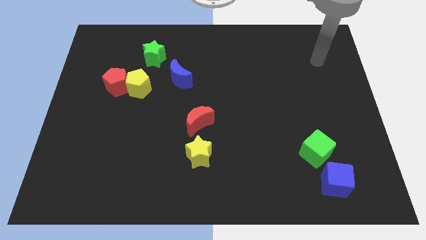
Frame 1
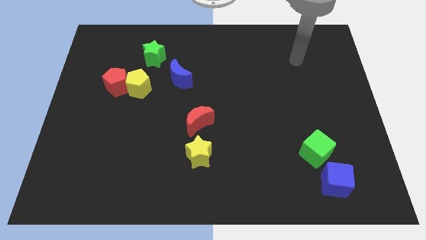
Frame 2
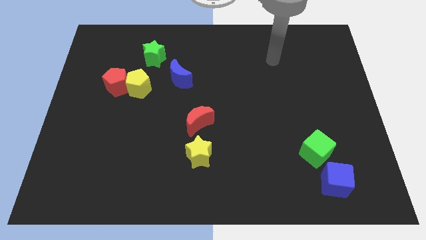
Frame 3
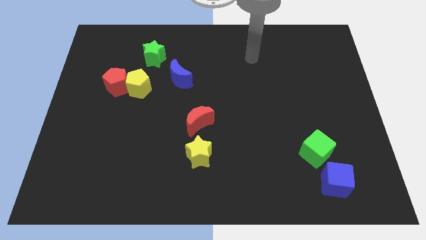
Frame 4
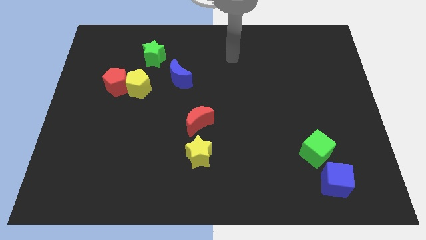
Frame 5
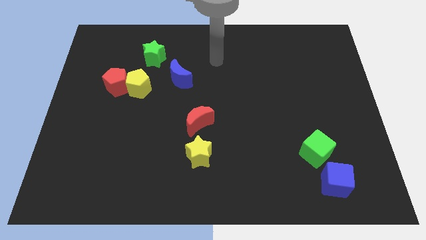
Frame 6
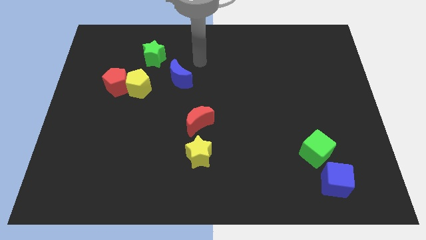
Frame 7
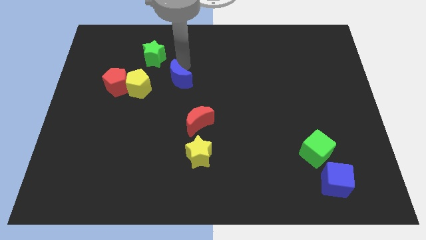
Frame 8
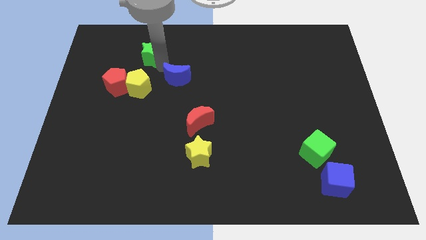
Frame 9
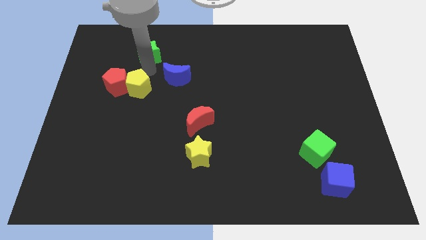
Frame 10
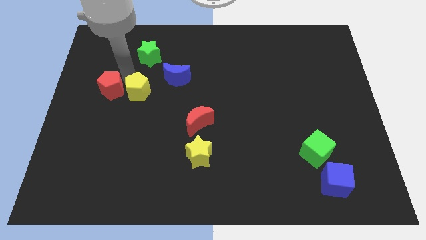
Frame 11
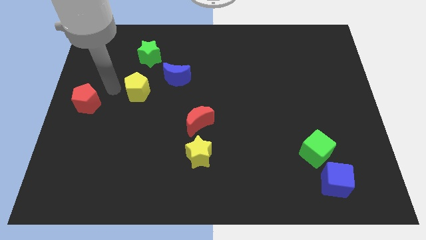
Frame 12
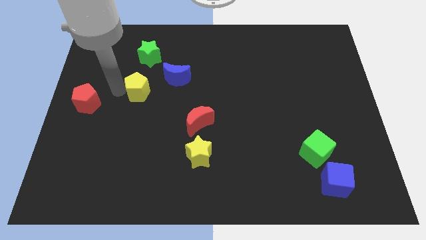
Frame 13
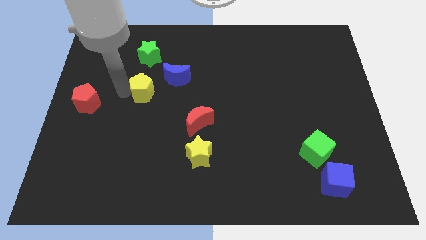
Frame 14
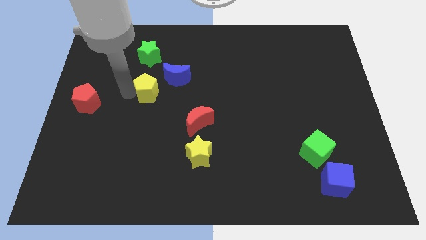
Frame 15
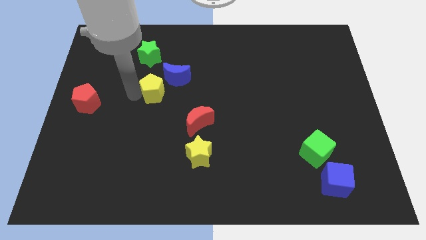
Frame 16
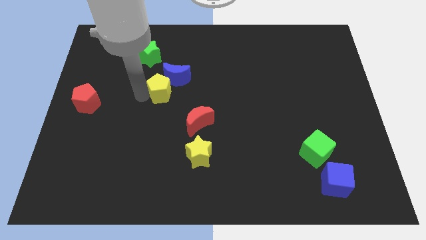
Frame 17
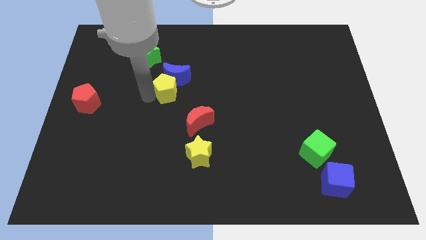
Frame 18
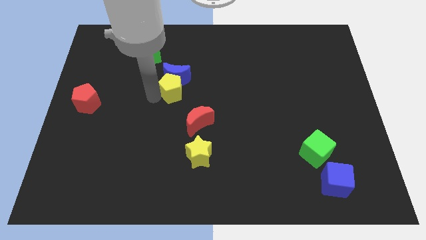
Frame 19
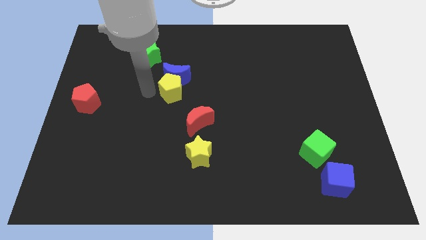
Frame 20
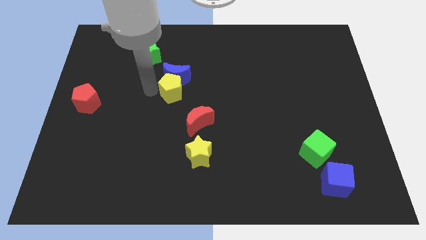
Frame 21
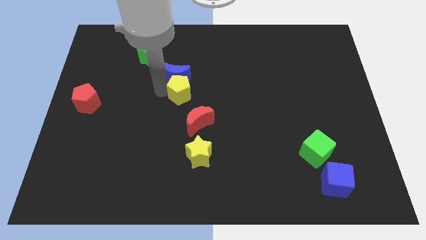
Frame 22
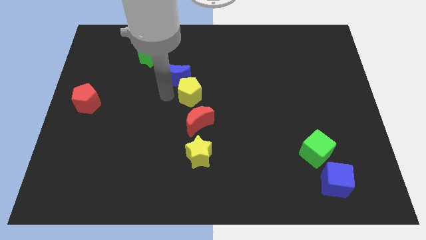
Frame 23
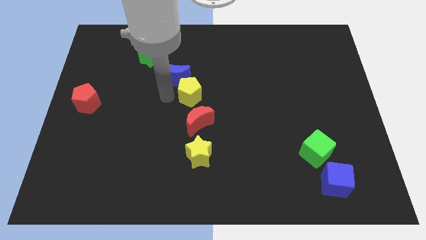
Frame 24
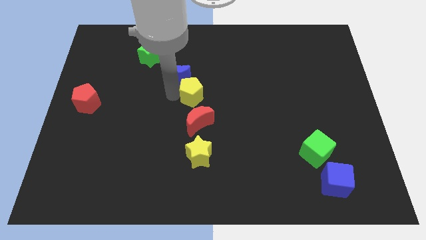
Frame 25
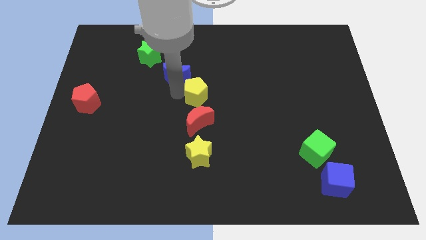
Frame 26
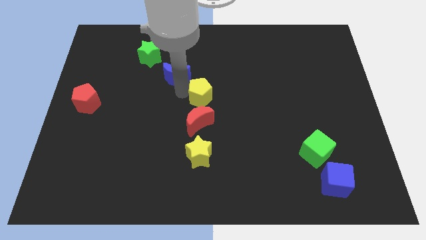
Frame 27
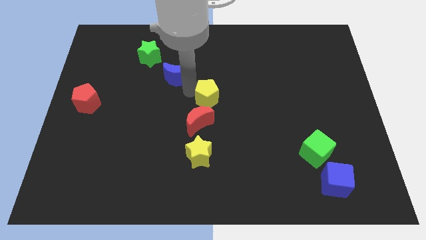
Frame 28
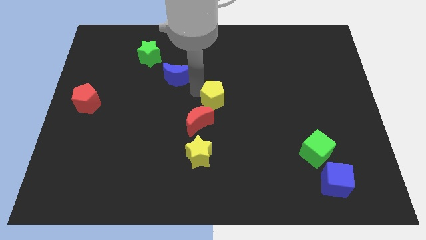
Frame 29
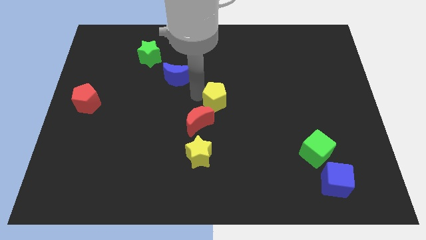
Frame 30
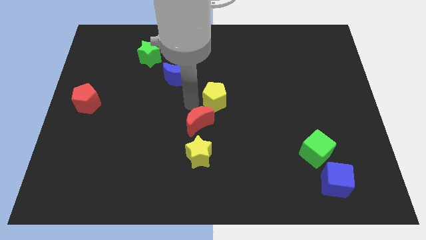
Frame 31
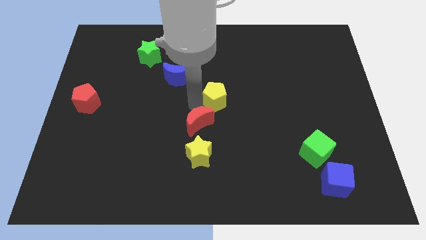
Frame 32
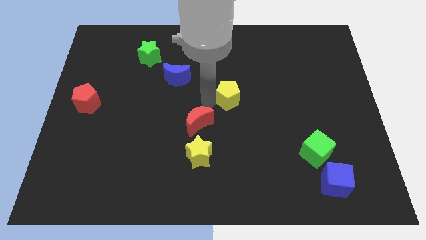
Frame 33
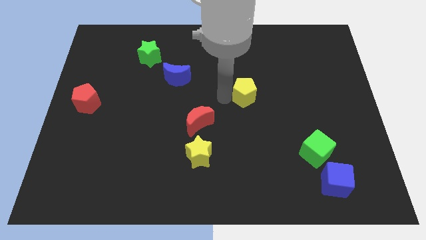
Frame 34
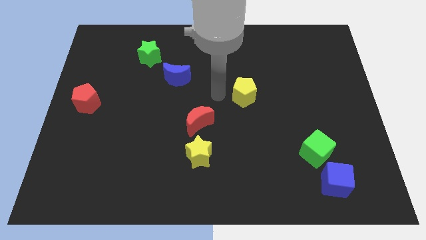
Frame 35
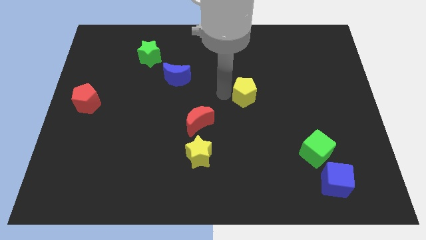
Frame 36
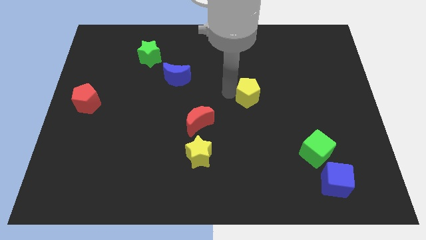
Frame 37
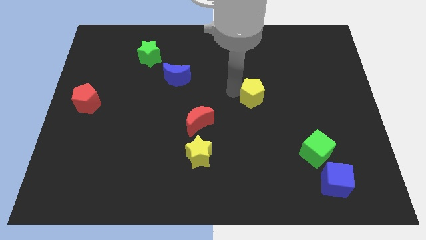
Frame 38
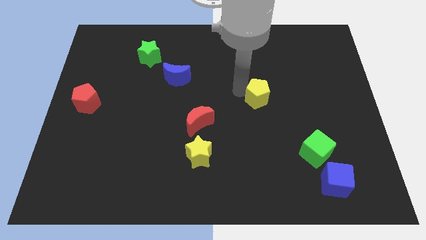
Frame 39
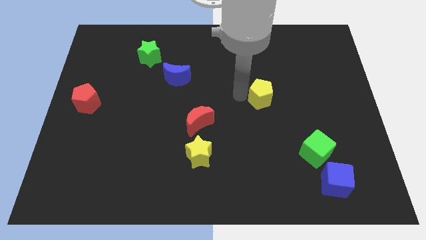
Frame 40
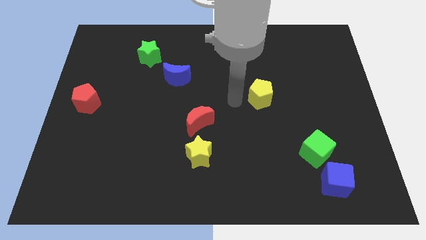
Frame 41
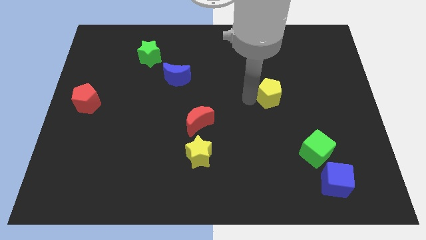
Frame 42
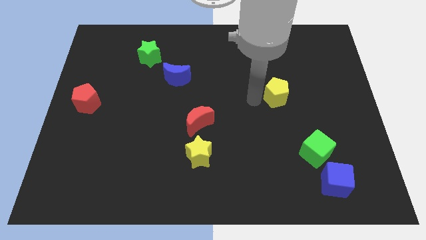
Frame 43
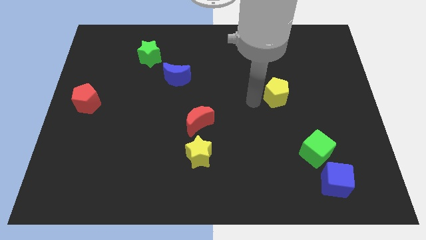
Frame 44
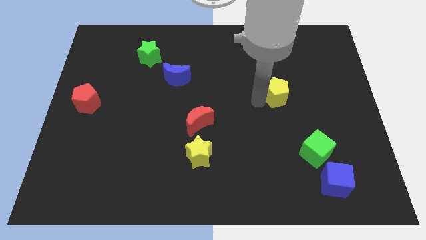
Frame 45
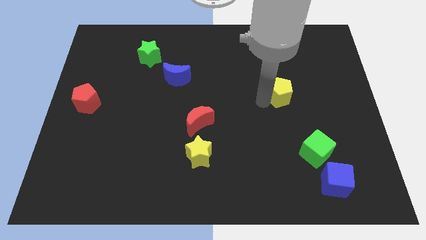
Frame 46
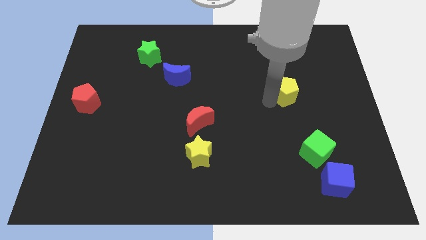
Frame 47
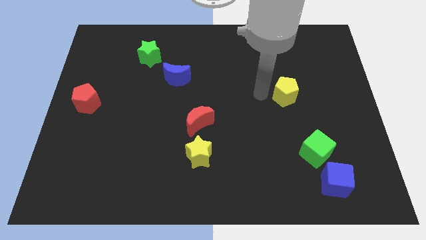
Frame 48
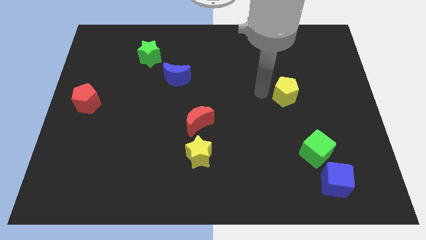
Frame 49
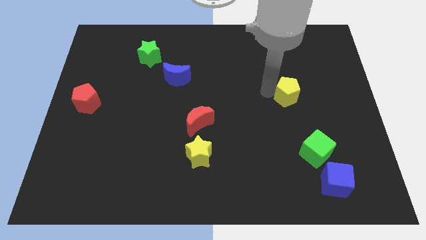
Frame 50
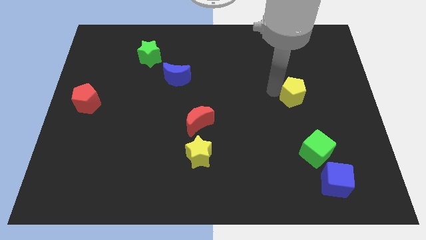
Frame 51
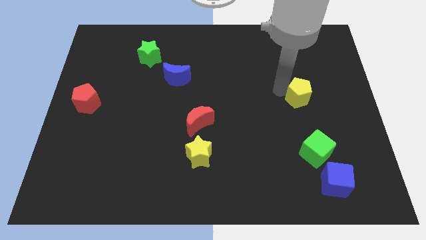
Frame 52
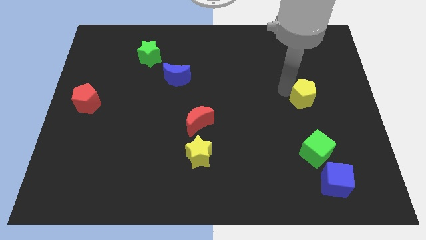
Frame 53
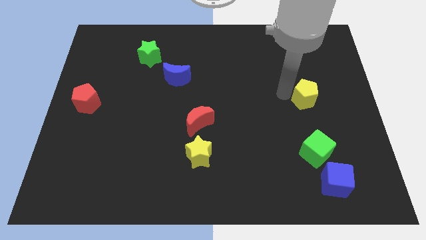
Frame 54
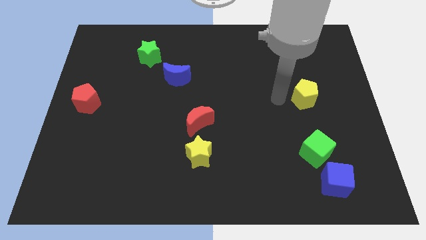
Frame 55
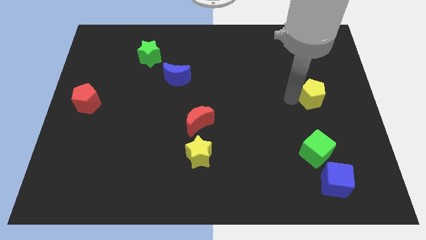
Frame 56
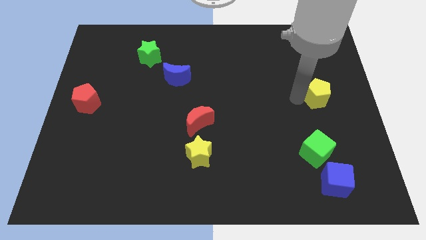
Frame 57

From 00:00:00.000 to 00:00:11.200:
move the yellow pentagon to the right side
